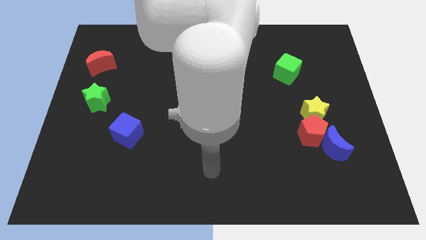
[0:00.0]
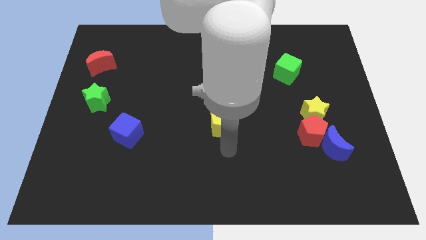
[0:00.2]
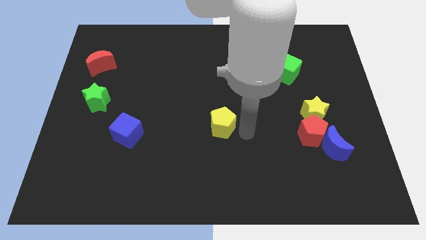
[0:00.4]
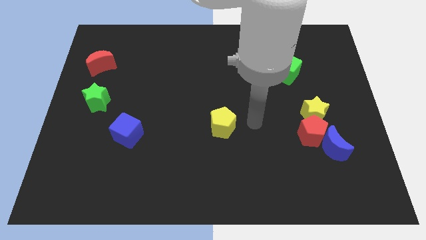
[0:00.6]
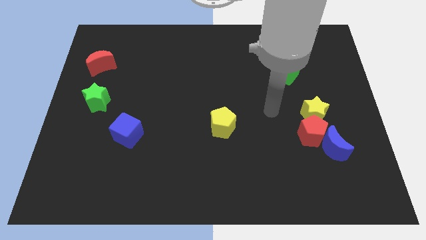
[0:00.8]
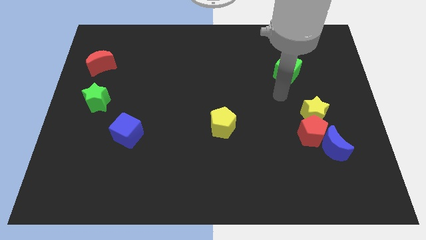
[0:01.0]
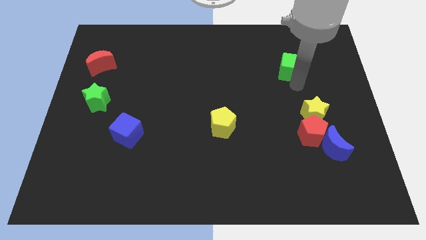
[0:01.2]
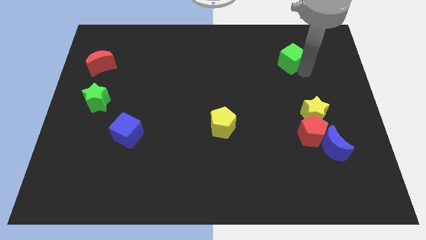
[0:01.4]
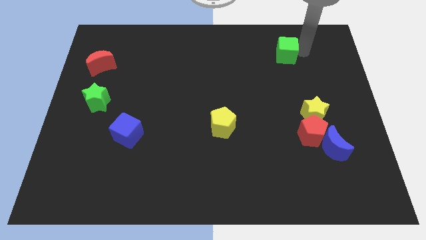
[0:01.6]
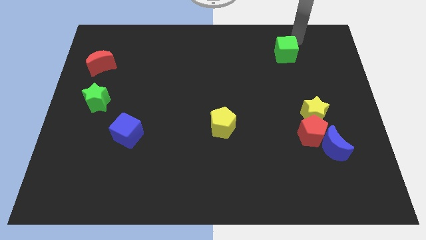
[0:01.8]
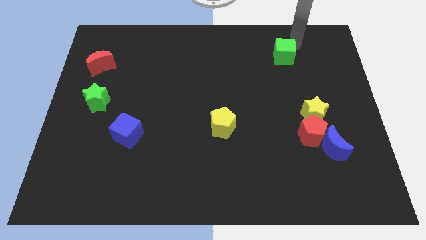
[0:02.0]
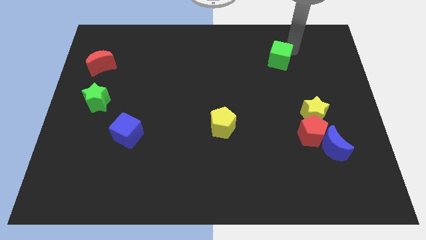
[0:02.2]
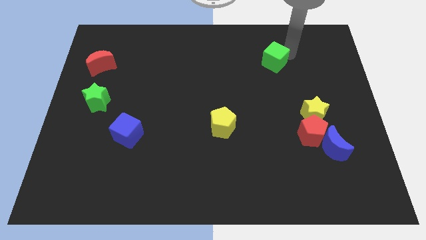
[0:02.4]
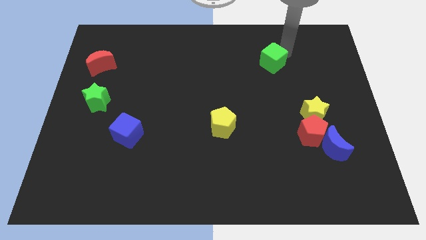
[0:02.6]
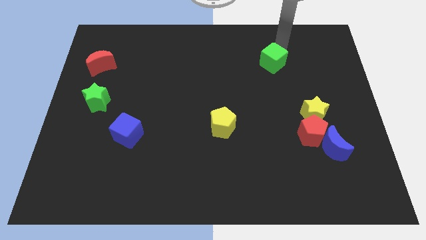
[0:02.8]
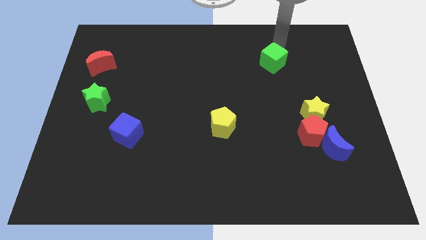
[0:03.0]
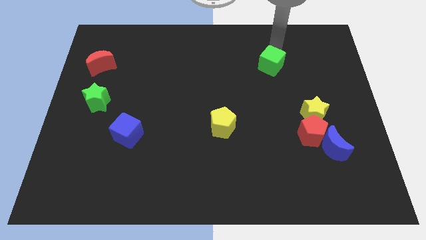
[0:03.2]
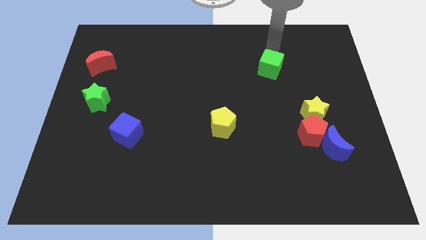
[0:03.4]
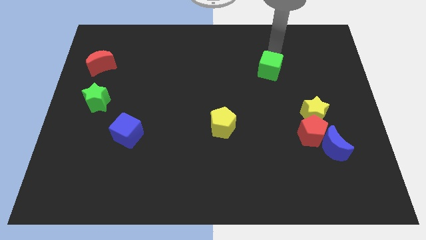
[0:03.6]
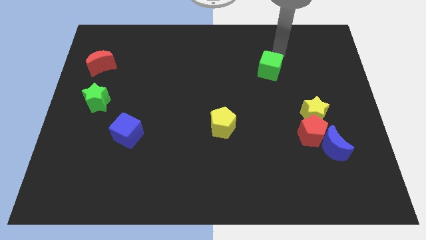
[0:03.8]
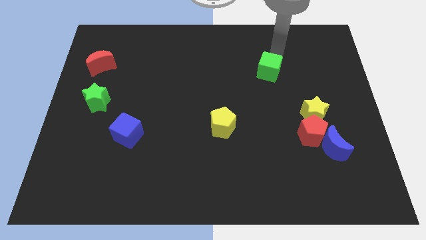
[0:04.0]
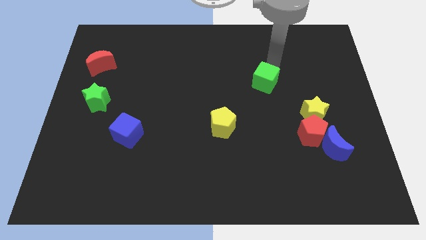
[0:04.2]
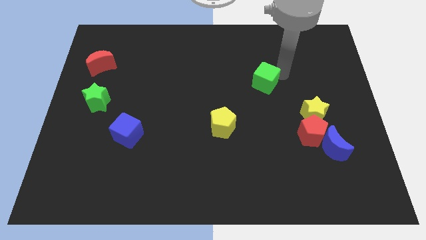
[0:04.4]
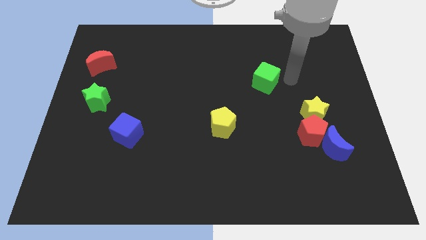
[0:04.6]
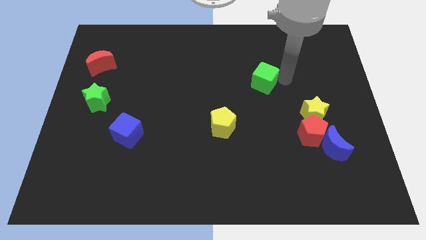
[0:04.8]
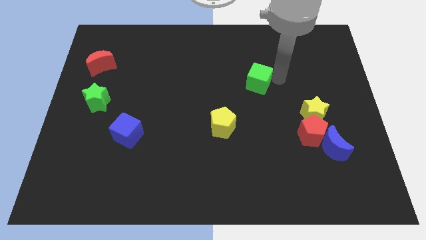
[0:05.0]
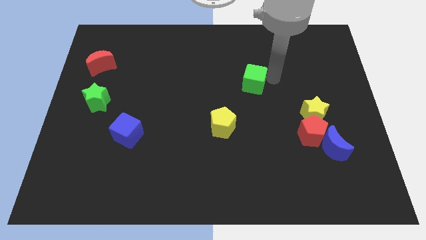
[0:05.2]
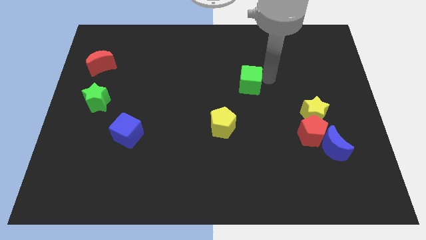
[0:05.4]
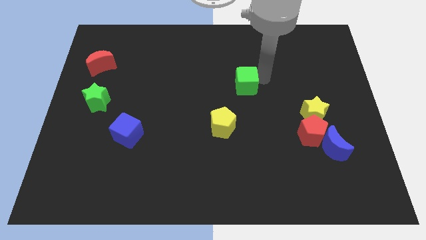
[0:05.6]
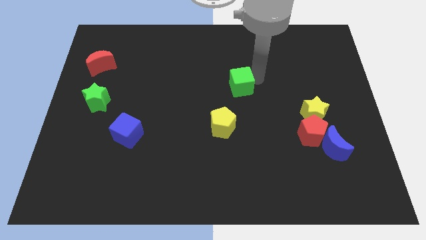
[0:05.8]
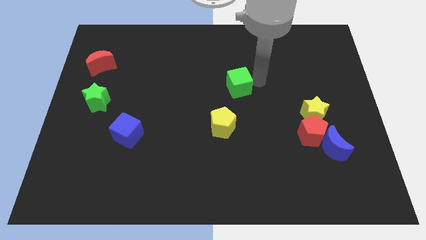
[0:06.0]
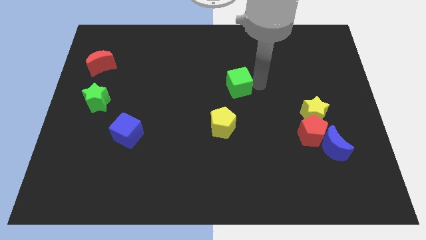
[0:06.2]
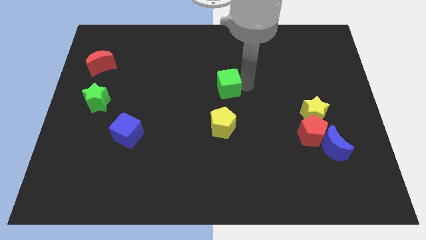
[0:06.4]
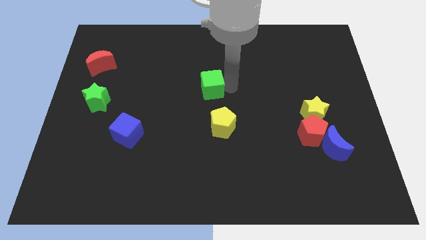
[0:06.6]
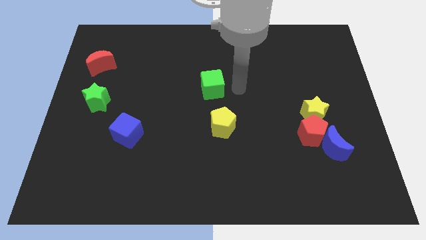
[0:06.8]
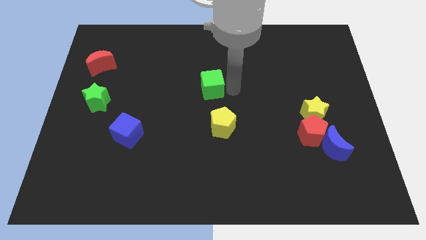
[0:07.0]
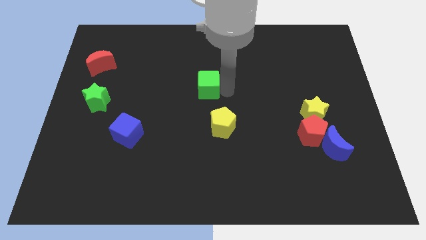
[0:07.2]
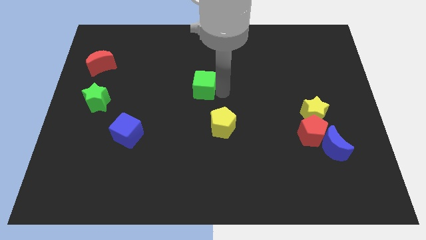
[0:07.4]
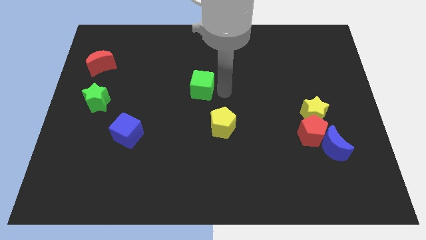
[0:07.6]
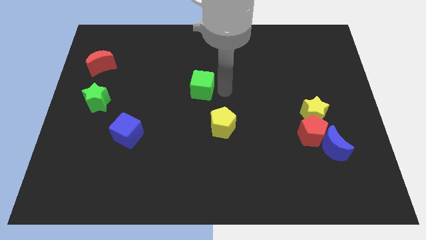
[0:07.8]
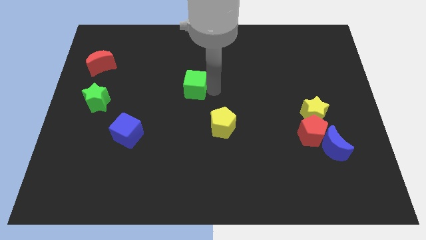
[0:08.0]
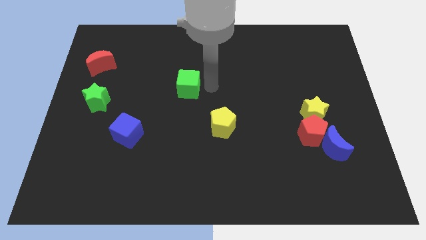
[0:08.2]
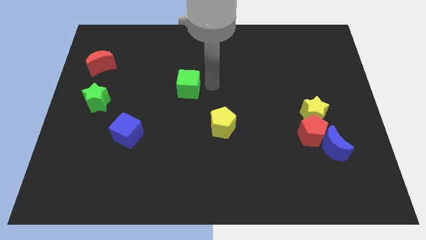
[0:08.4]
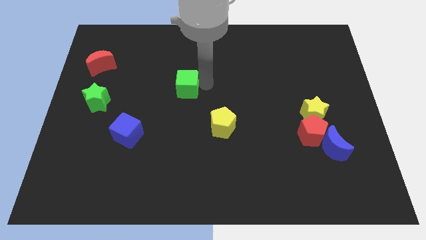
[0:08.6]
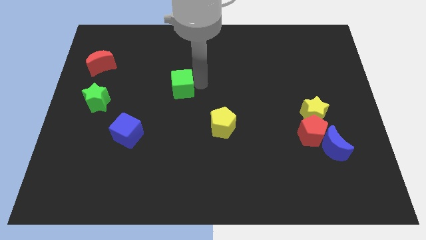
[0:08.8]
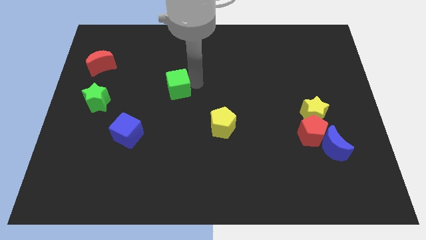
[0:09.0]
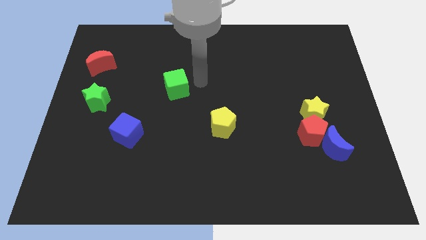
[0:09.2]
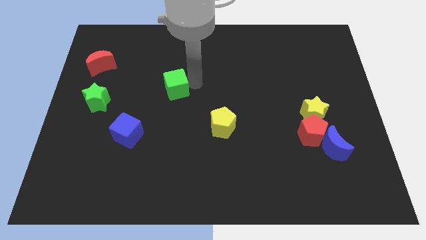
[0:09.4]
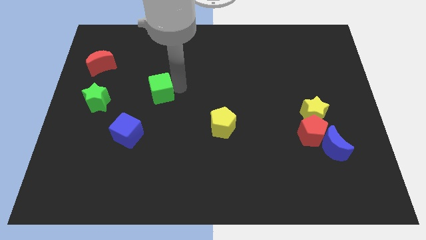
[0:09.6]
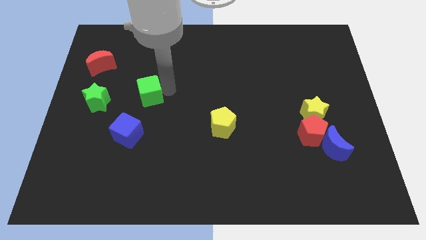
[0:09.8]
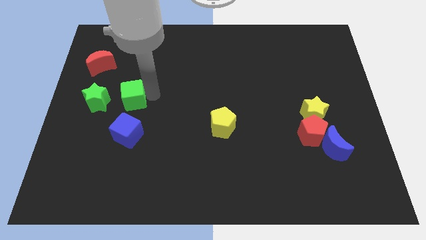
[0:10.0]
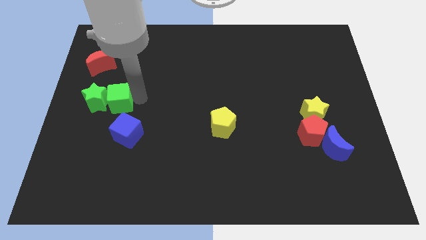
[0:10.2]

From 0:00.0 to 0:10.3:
move the green cube to the green star

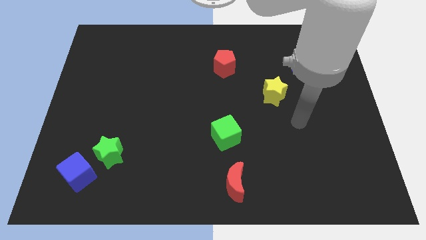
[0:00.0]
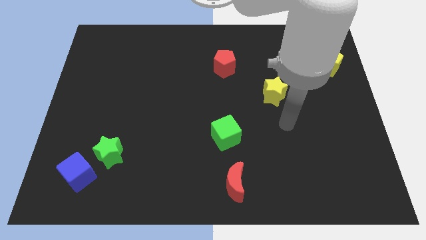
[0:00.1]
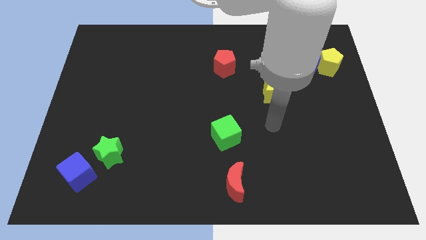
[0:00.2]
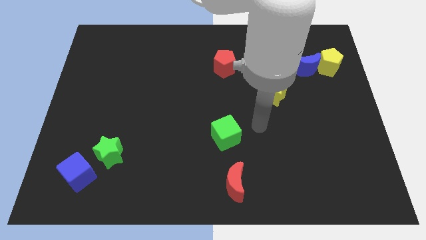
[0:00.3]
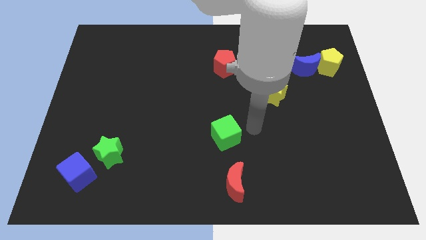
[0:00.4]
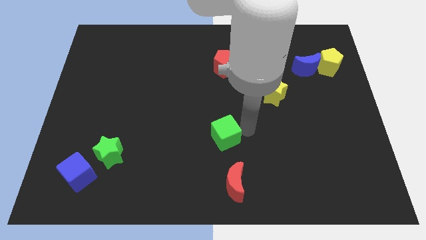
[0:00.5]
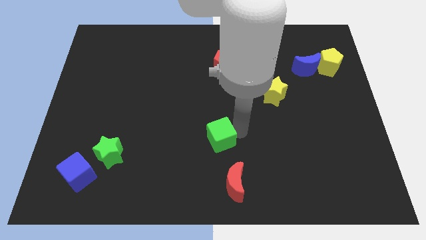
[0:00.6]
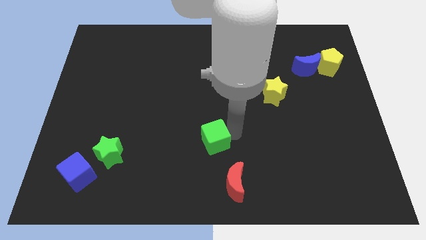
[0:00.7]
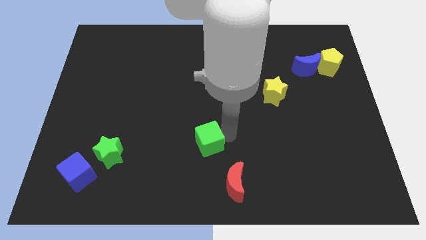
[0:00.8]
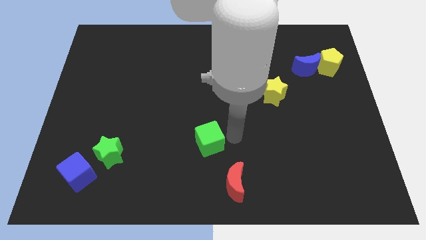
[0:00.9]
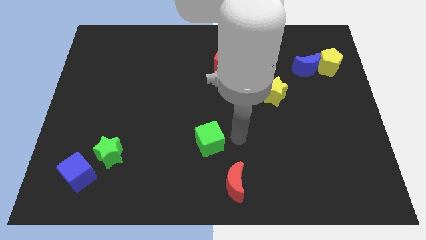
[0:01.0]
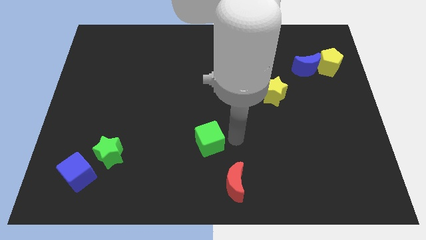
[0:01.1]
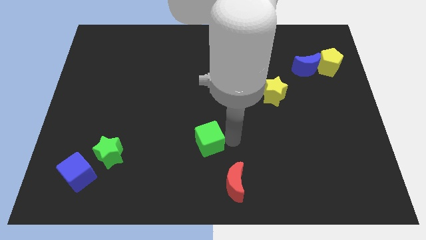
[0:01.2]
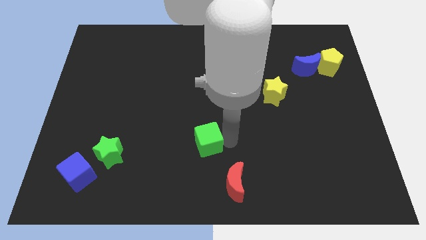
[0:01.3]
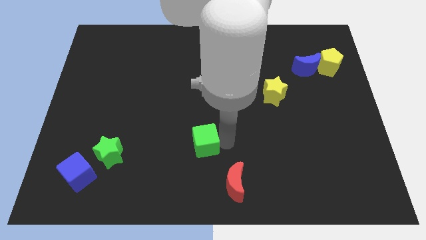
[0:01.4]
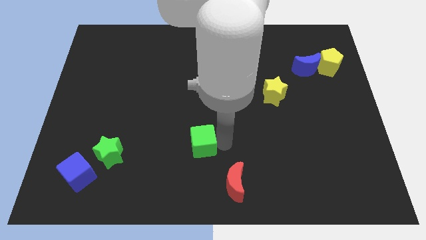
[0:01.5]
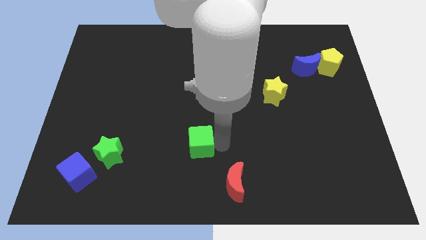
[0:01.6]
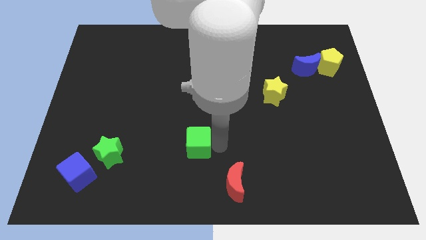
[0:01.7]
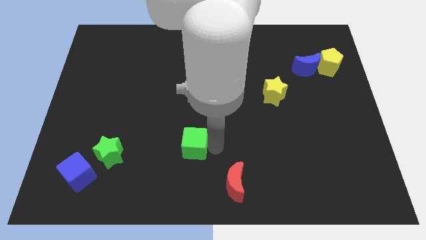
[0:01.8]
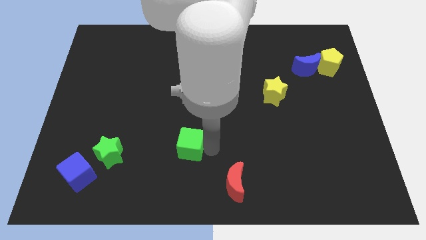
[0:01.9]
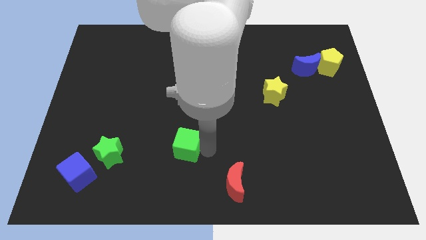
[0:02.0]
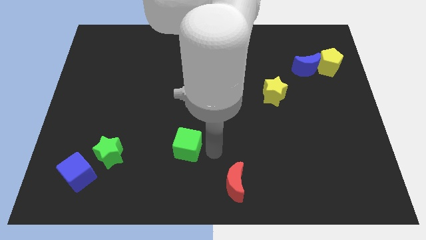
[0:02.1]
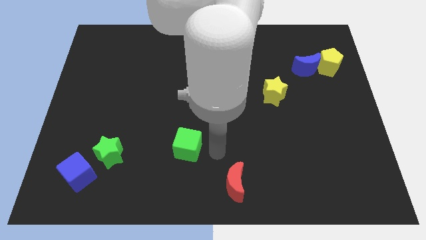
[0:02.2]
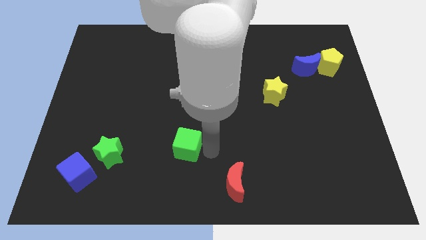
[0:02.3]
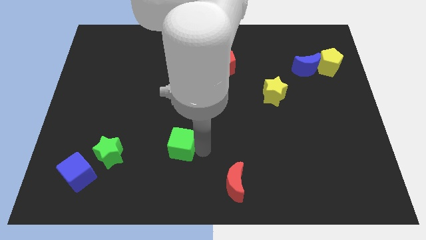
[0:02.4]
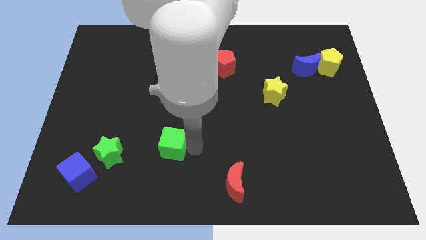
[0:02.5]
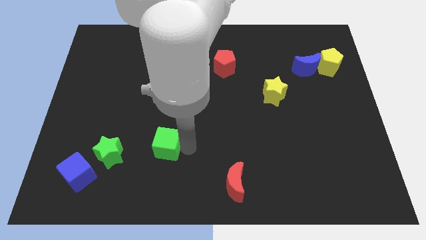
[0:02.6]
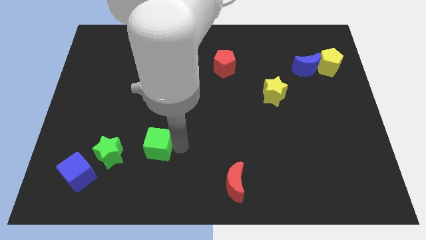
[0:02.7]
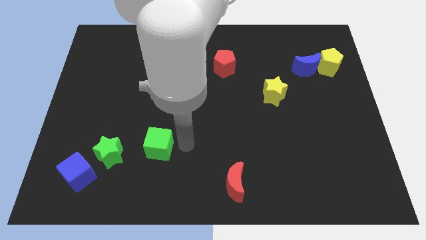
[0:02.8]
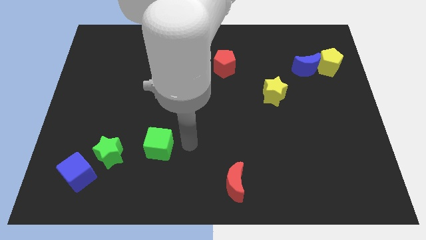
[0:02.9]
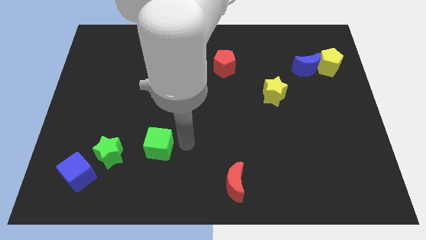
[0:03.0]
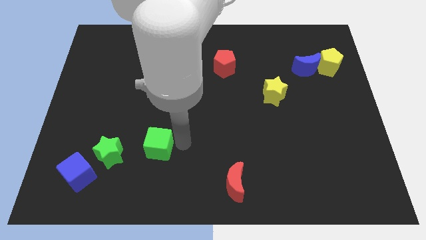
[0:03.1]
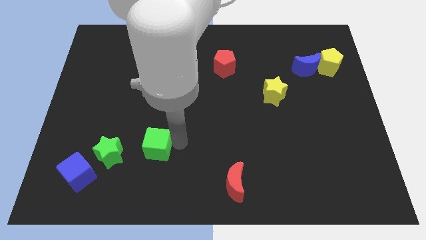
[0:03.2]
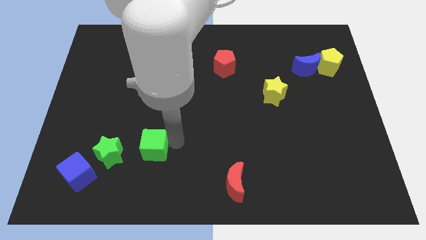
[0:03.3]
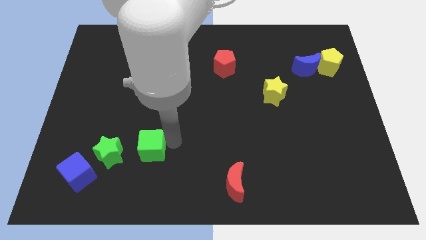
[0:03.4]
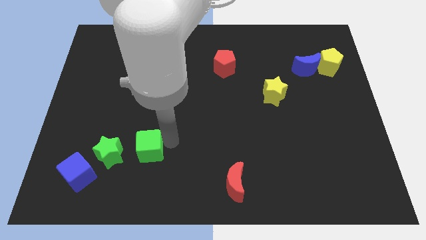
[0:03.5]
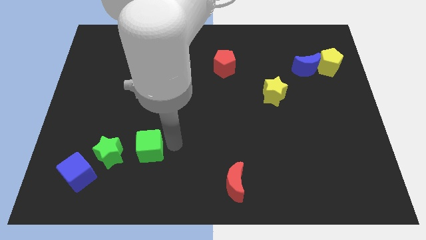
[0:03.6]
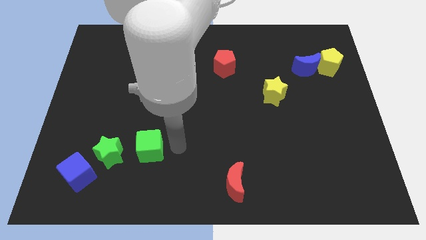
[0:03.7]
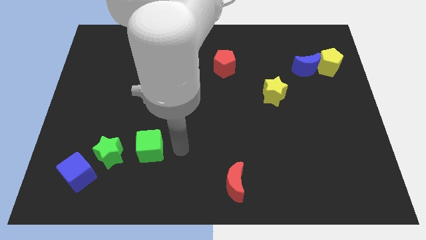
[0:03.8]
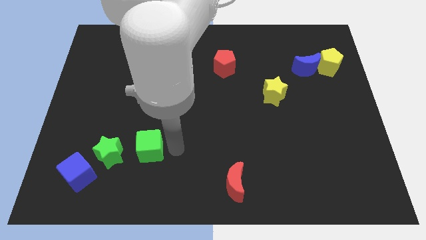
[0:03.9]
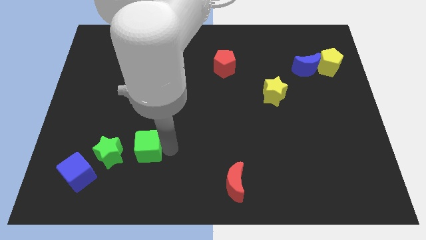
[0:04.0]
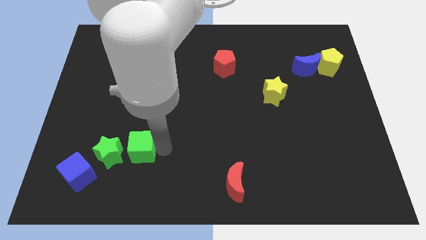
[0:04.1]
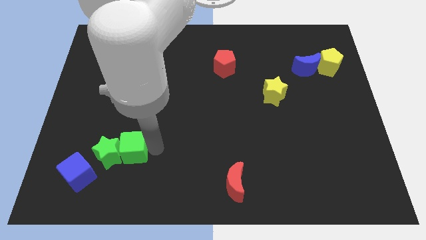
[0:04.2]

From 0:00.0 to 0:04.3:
put the green cube towards the green star
